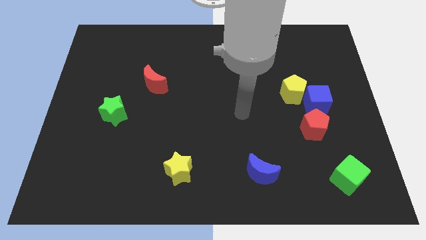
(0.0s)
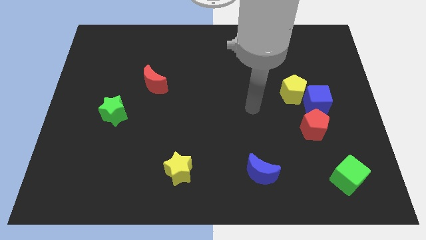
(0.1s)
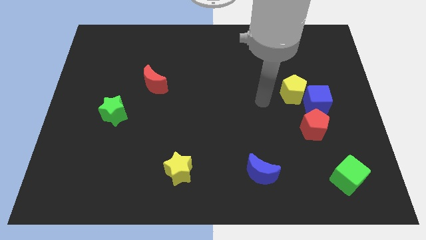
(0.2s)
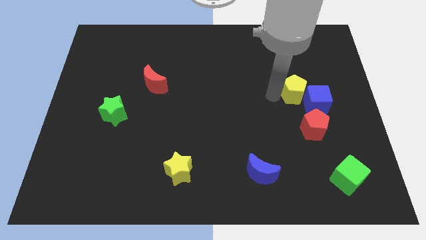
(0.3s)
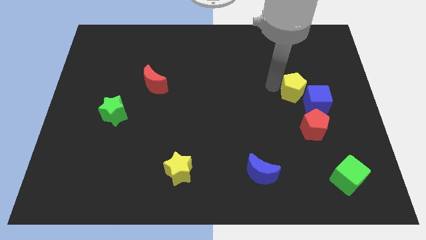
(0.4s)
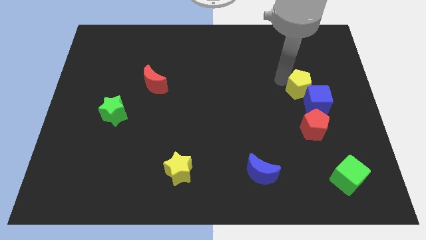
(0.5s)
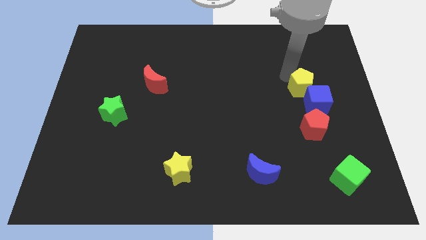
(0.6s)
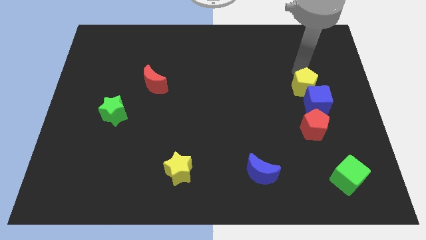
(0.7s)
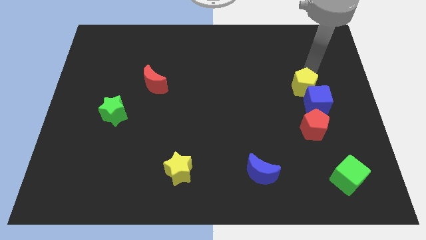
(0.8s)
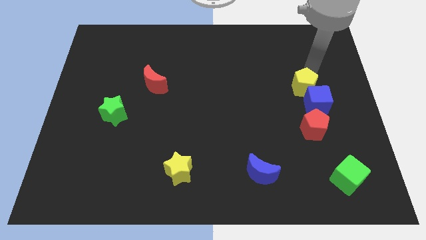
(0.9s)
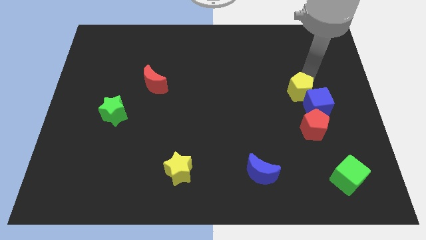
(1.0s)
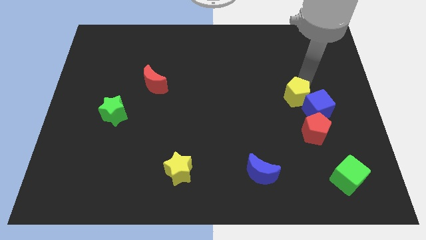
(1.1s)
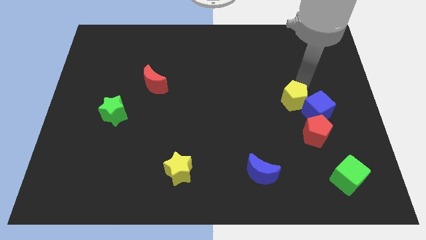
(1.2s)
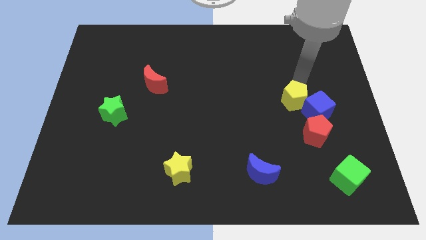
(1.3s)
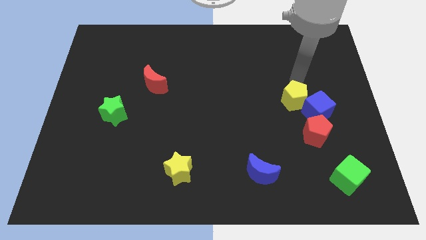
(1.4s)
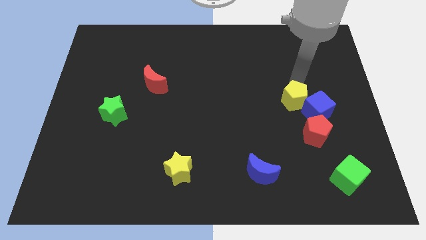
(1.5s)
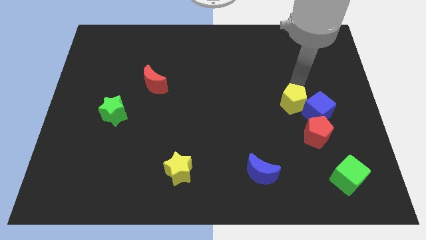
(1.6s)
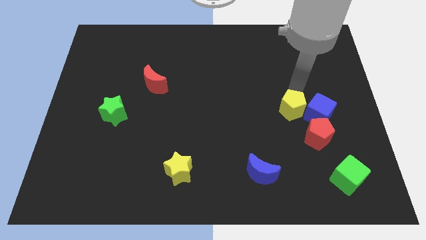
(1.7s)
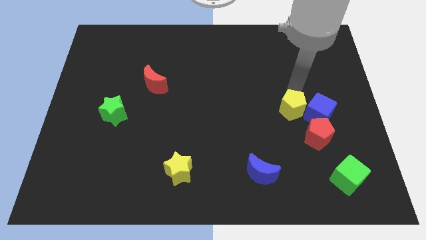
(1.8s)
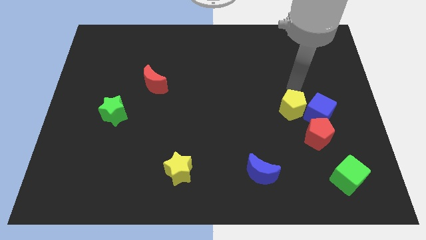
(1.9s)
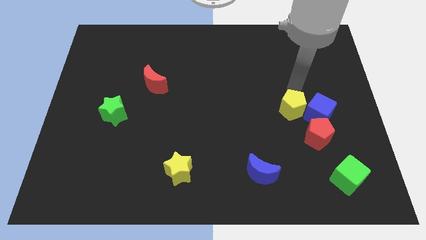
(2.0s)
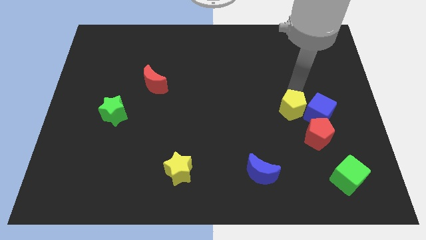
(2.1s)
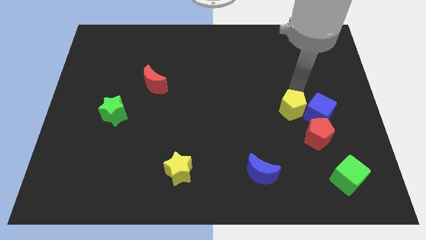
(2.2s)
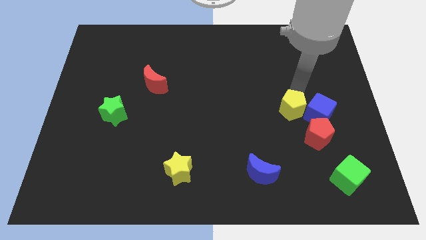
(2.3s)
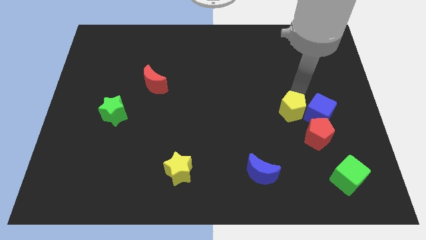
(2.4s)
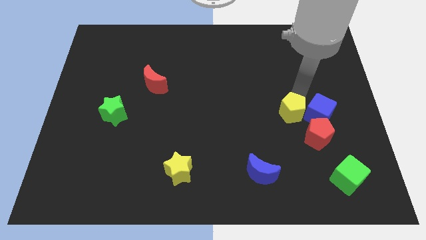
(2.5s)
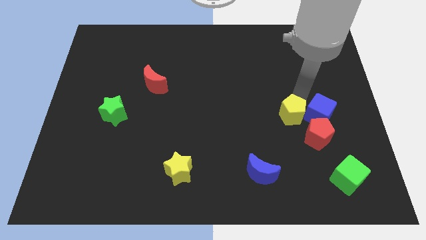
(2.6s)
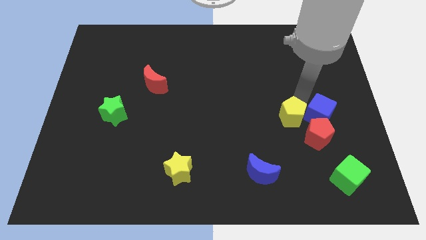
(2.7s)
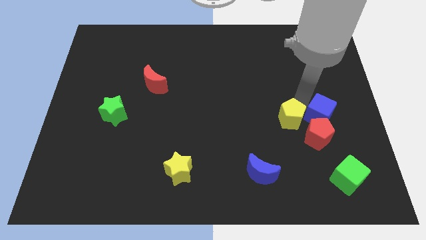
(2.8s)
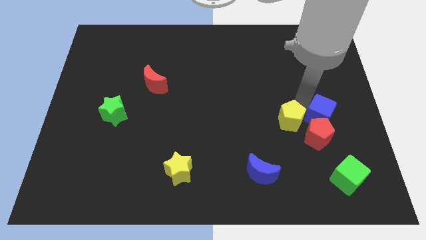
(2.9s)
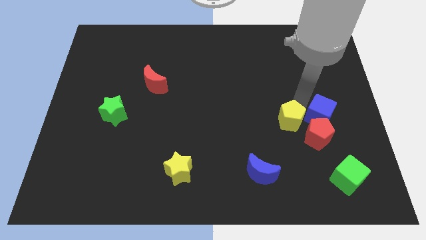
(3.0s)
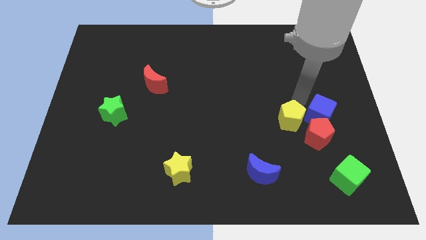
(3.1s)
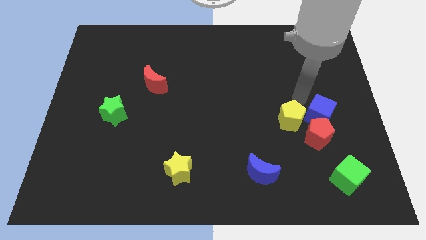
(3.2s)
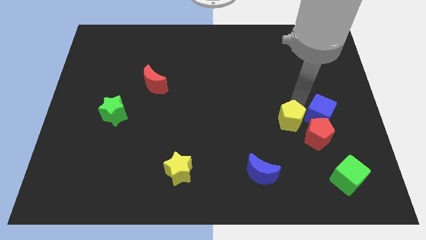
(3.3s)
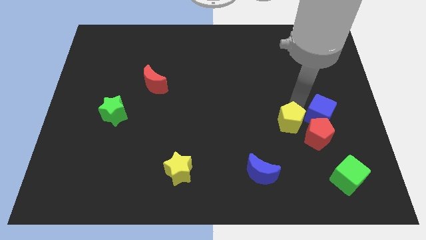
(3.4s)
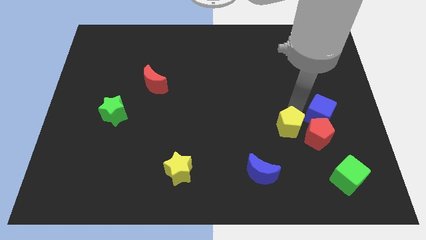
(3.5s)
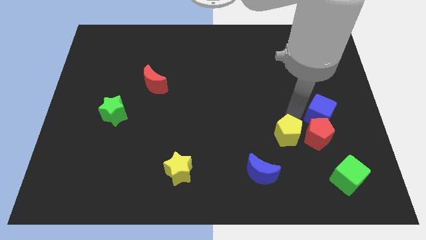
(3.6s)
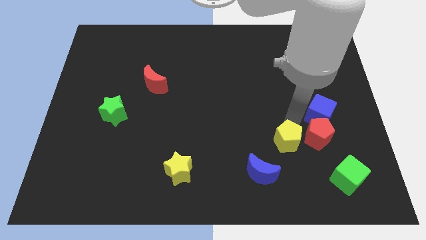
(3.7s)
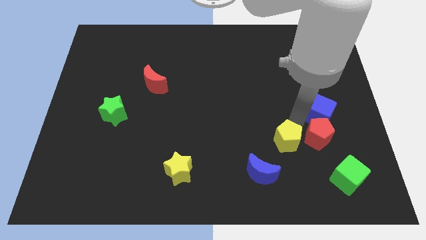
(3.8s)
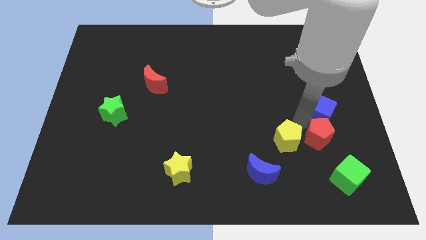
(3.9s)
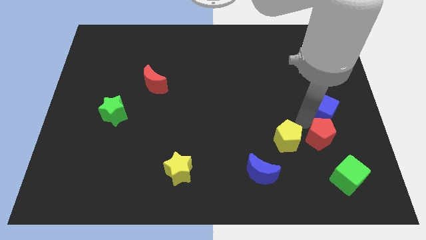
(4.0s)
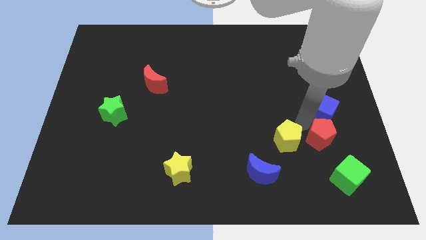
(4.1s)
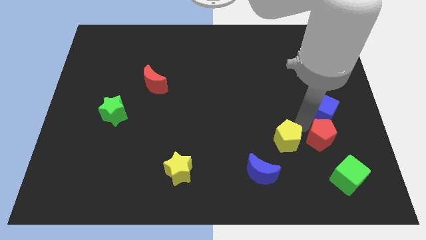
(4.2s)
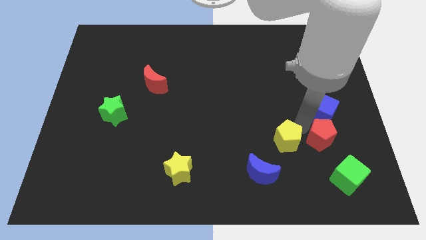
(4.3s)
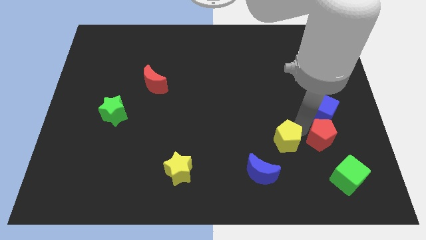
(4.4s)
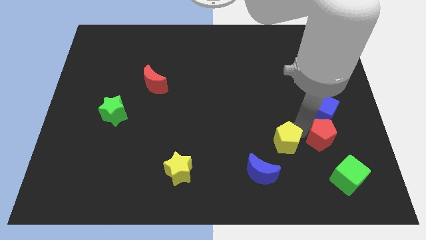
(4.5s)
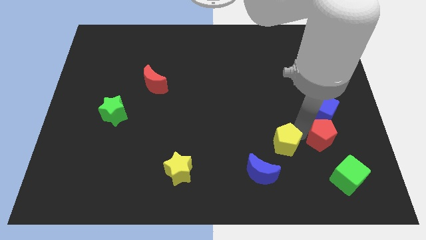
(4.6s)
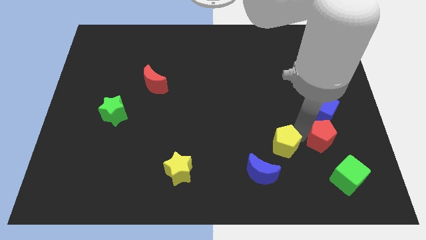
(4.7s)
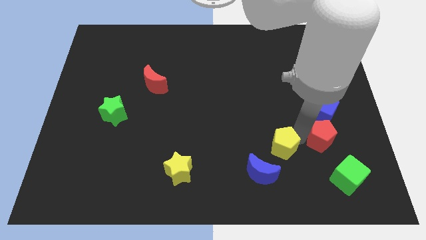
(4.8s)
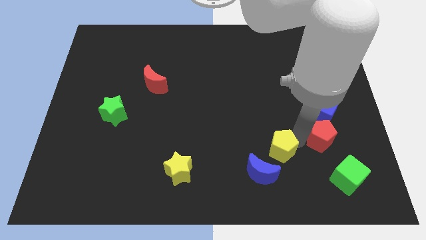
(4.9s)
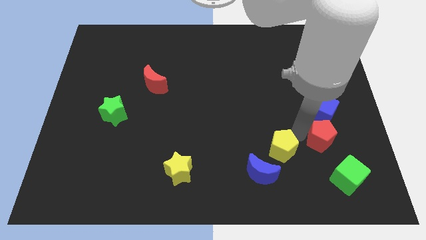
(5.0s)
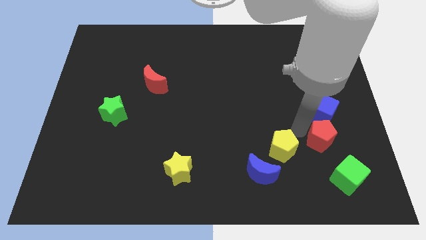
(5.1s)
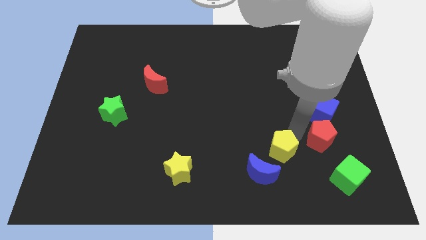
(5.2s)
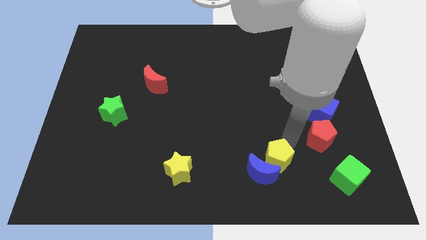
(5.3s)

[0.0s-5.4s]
put the yellow pentagon next to the blue moon

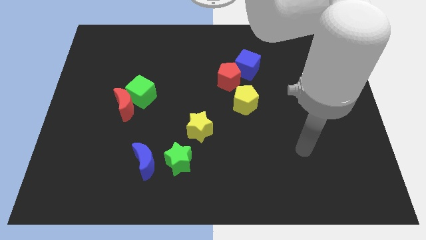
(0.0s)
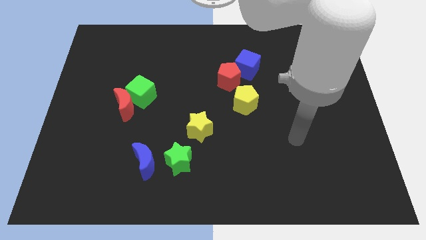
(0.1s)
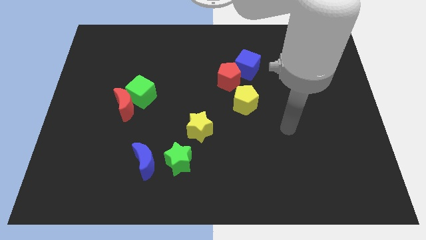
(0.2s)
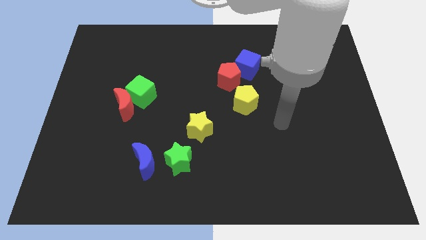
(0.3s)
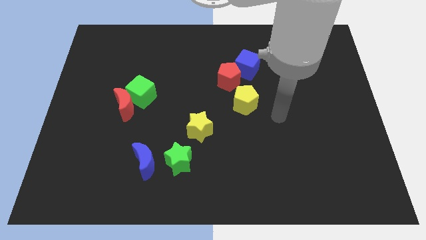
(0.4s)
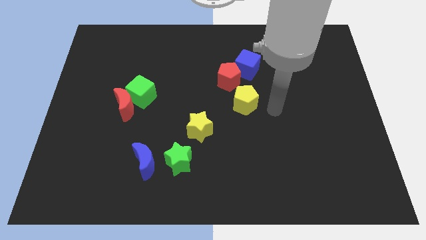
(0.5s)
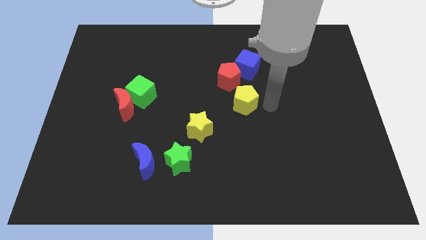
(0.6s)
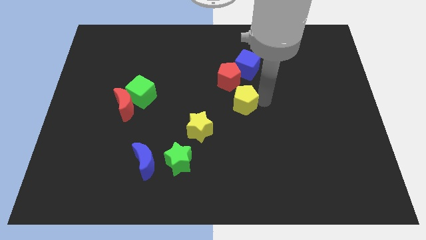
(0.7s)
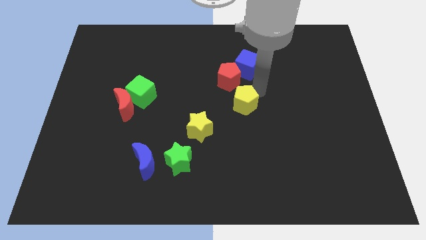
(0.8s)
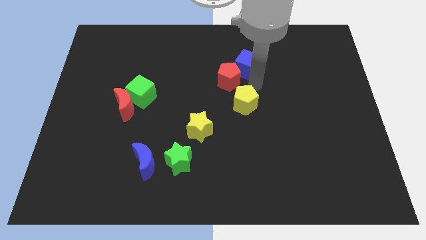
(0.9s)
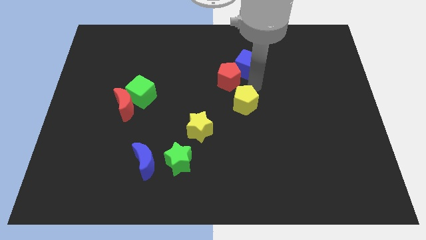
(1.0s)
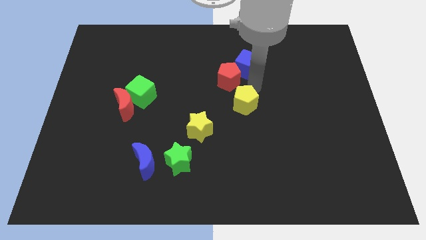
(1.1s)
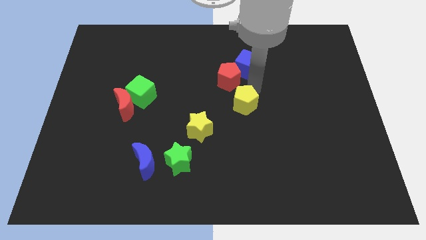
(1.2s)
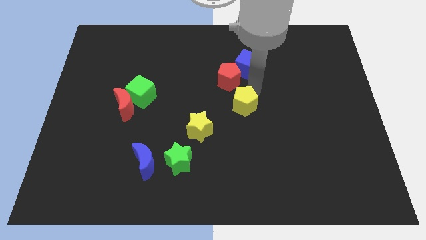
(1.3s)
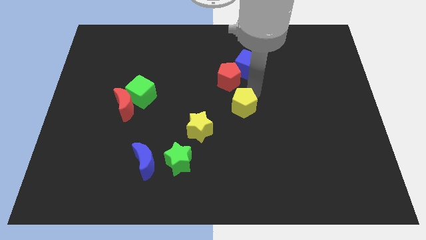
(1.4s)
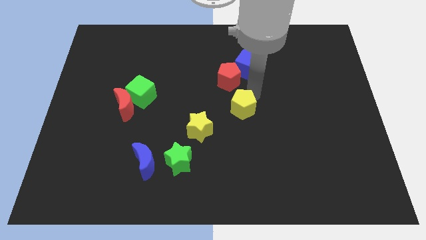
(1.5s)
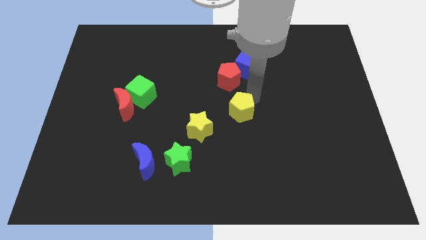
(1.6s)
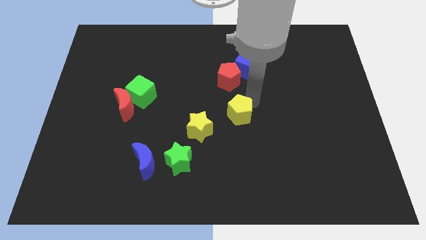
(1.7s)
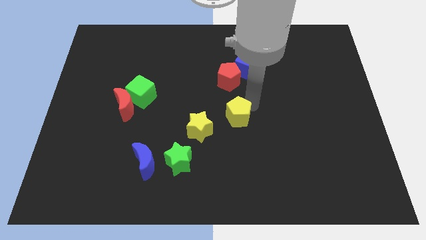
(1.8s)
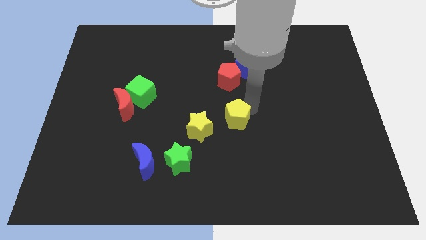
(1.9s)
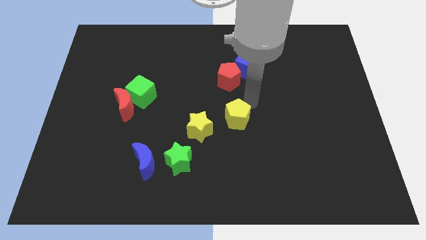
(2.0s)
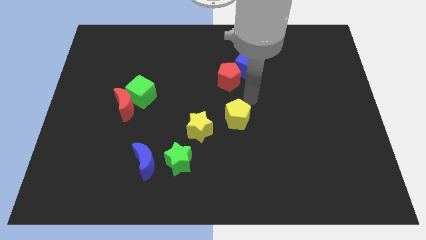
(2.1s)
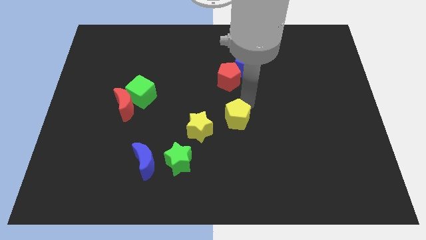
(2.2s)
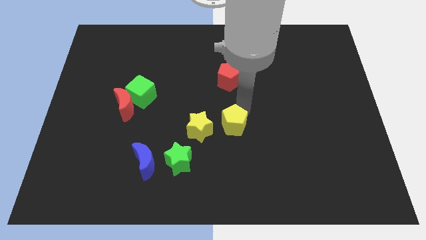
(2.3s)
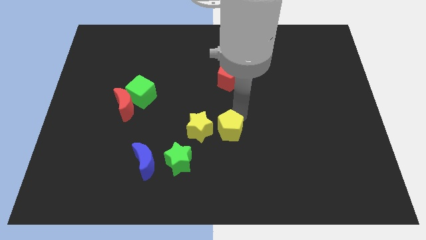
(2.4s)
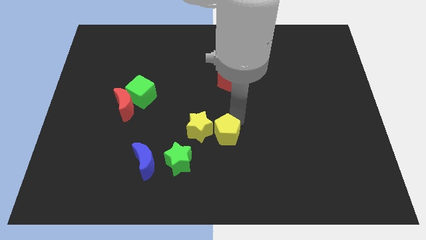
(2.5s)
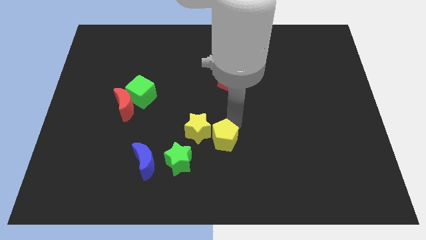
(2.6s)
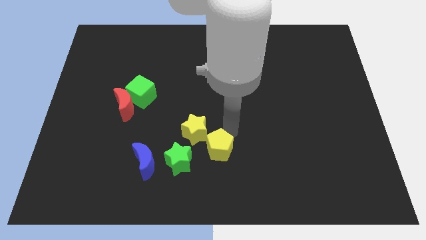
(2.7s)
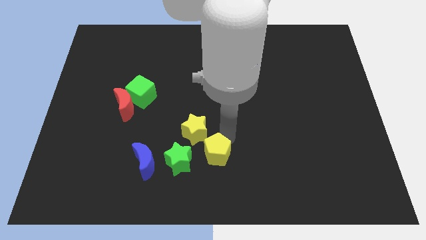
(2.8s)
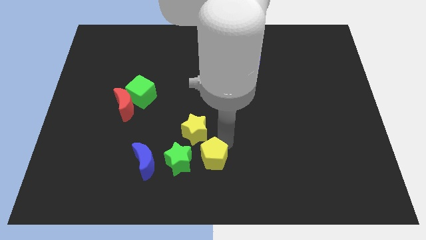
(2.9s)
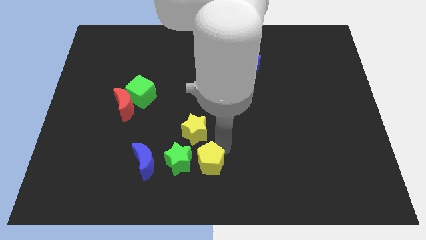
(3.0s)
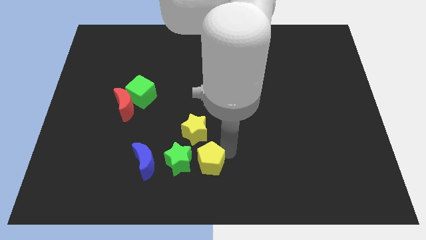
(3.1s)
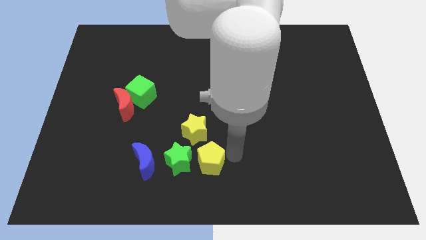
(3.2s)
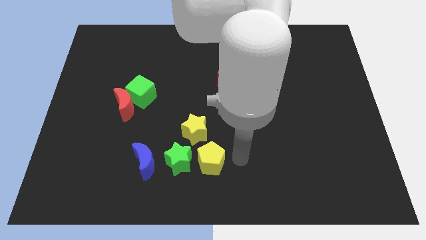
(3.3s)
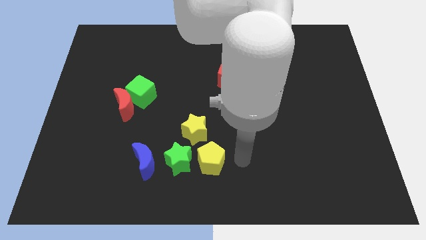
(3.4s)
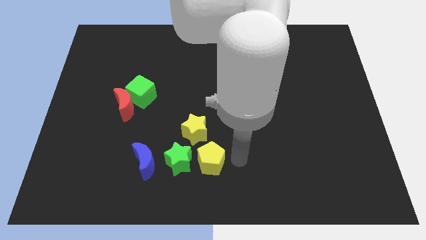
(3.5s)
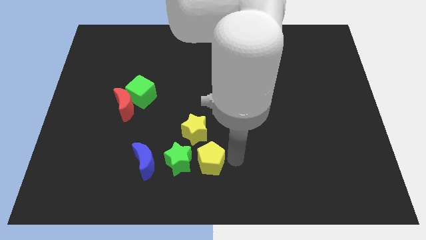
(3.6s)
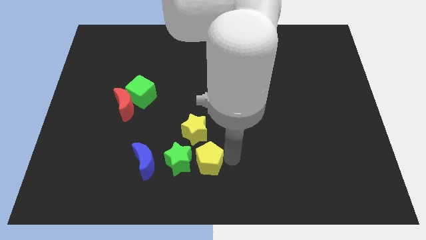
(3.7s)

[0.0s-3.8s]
move the yellow pentagon next to the green star
